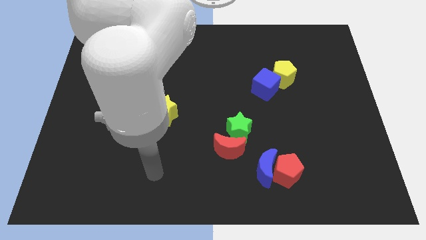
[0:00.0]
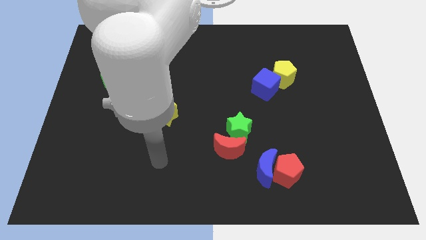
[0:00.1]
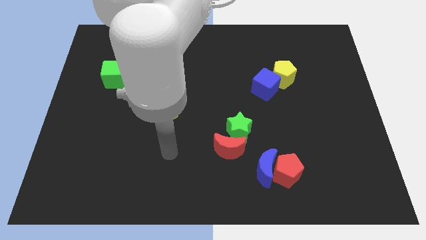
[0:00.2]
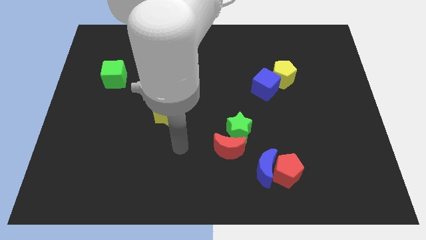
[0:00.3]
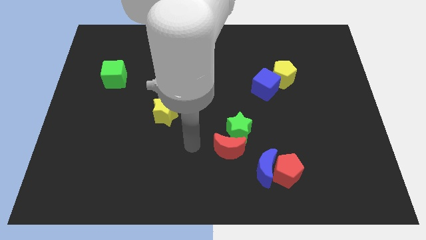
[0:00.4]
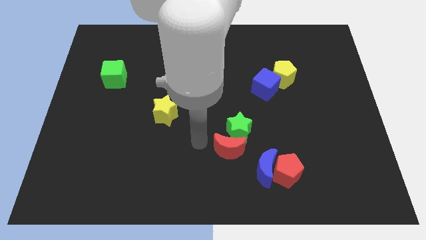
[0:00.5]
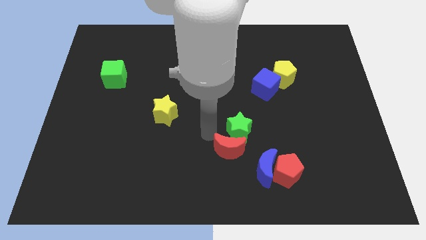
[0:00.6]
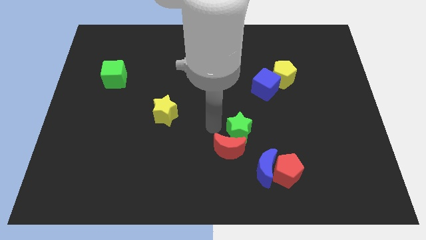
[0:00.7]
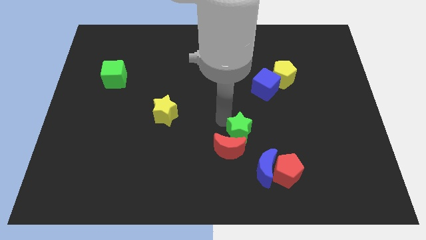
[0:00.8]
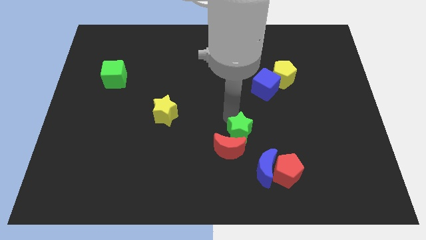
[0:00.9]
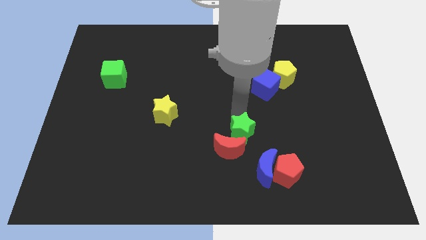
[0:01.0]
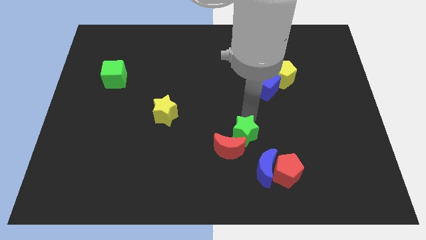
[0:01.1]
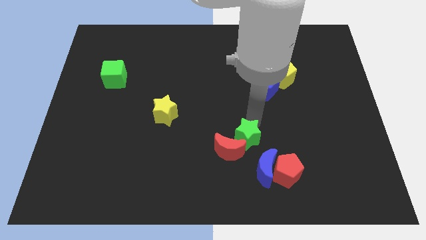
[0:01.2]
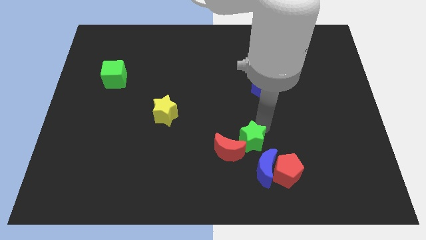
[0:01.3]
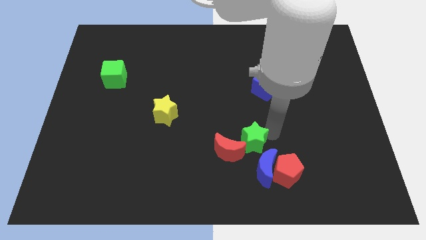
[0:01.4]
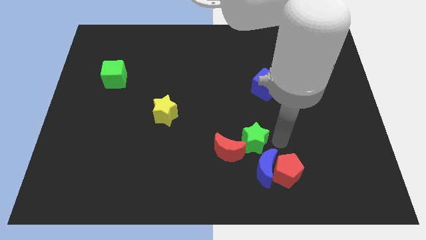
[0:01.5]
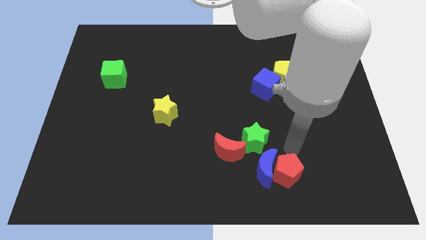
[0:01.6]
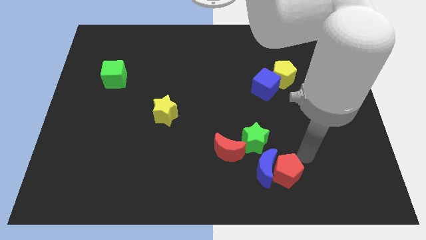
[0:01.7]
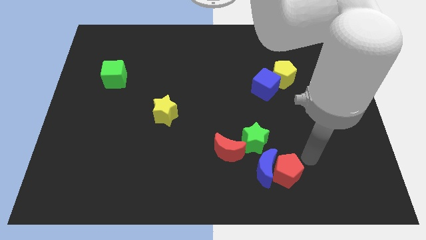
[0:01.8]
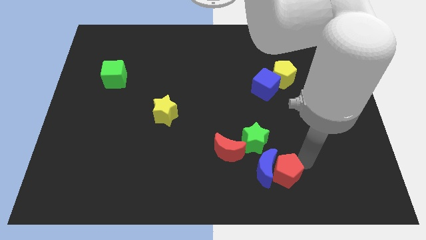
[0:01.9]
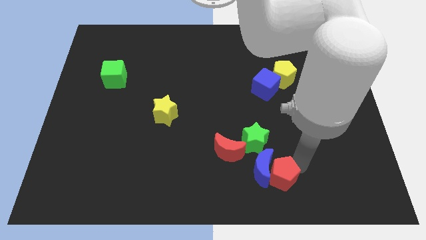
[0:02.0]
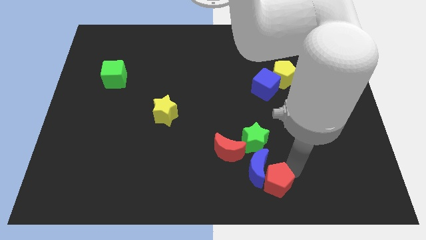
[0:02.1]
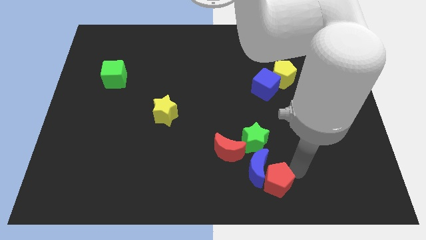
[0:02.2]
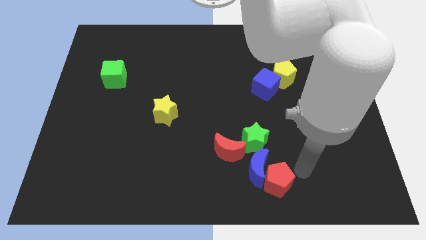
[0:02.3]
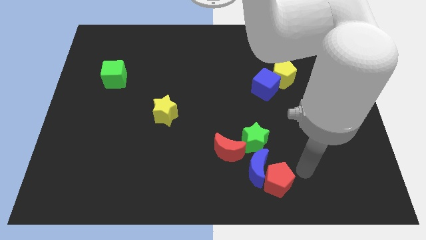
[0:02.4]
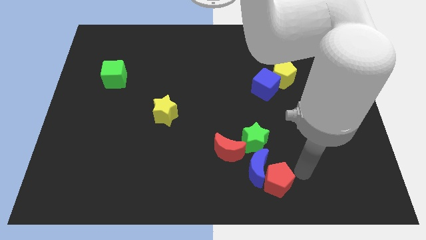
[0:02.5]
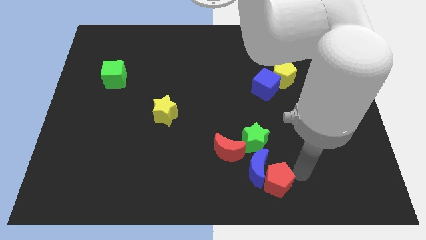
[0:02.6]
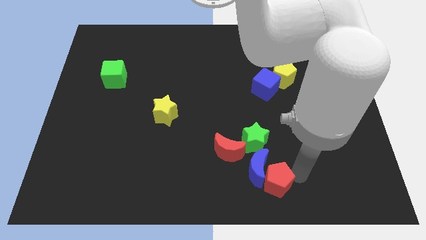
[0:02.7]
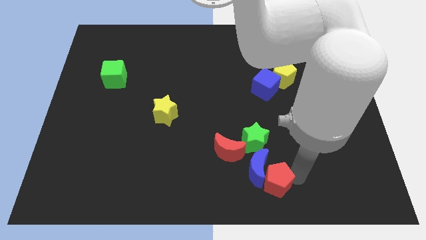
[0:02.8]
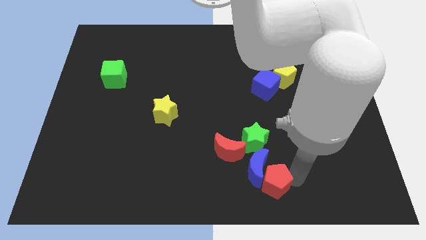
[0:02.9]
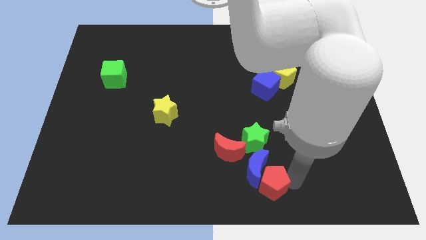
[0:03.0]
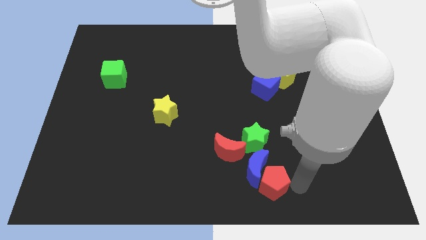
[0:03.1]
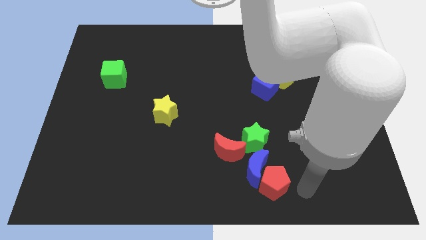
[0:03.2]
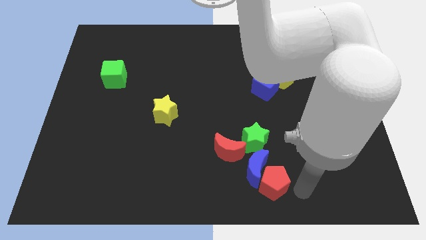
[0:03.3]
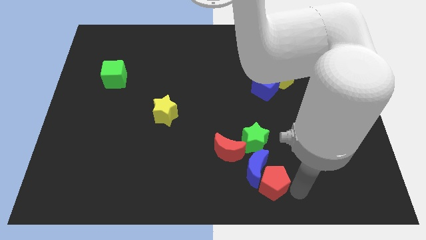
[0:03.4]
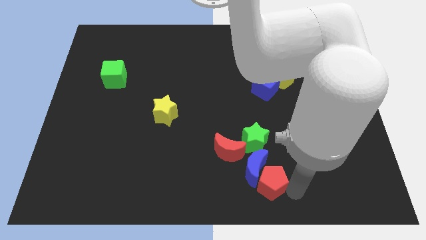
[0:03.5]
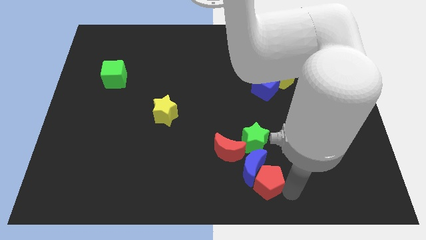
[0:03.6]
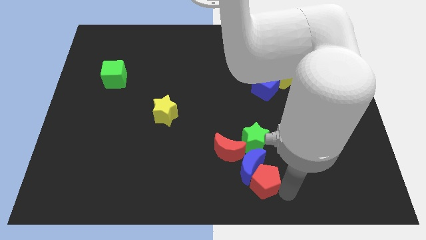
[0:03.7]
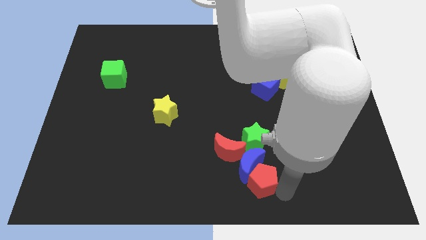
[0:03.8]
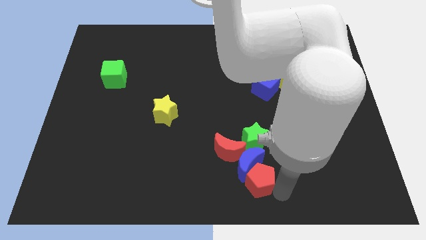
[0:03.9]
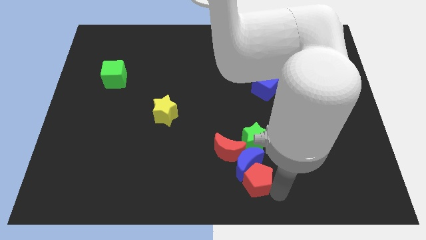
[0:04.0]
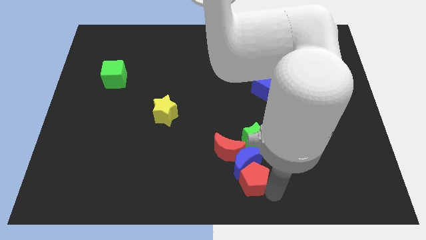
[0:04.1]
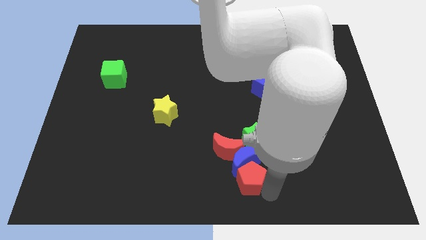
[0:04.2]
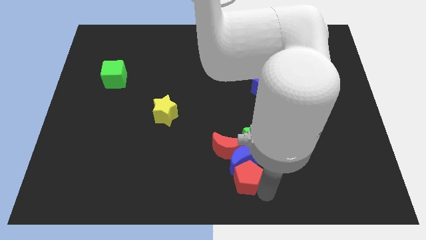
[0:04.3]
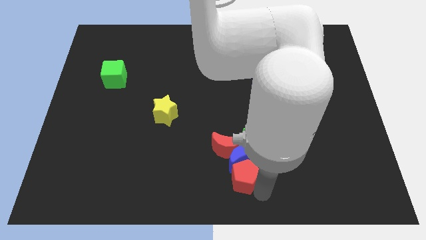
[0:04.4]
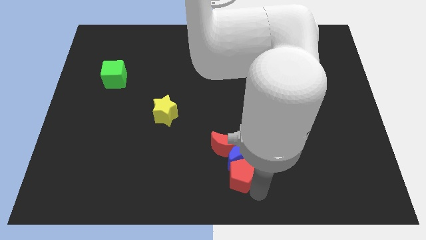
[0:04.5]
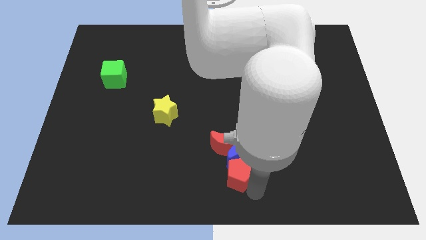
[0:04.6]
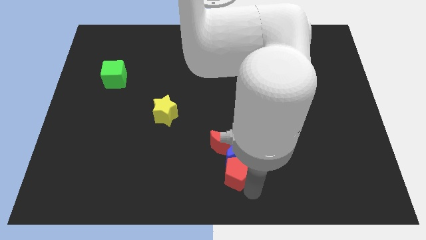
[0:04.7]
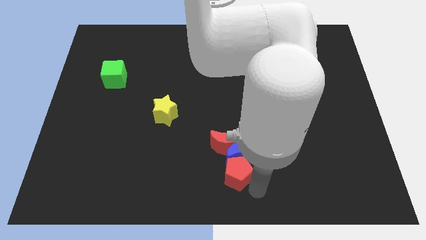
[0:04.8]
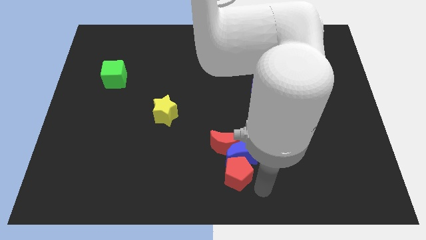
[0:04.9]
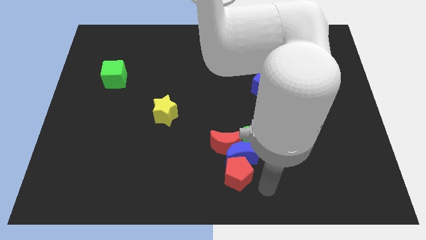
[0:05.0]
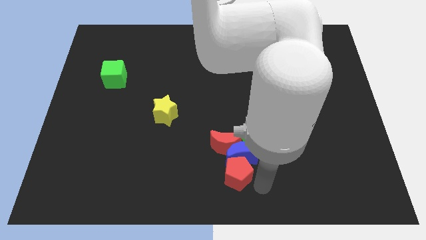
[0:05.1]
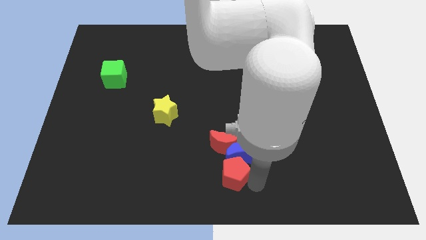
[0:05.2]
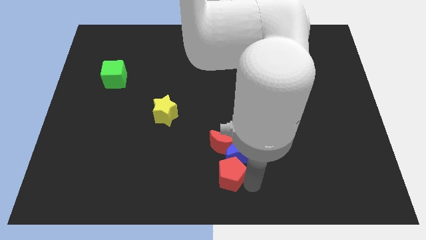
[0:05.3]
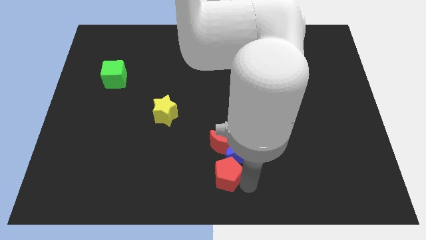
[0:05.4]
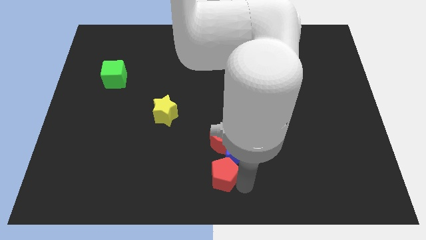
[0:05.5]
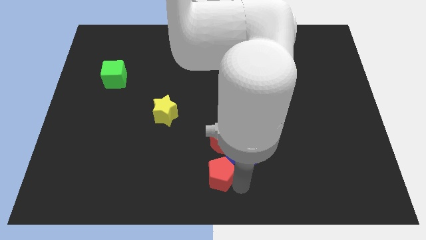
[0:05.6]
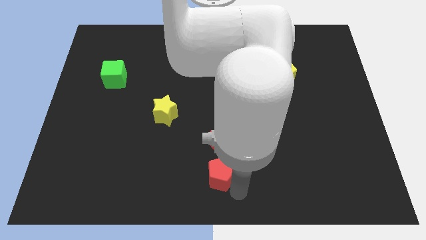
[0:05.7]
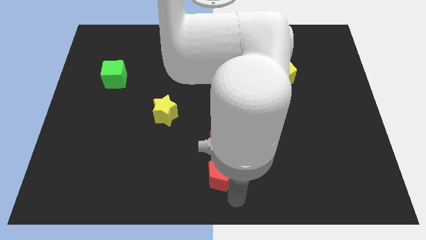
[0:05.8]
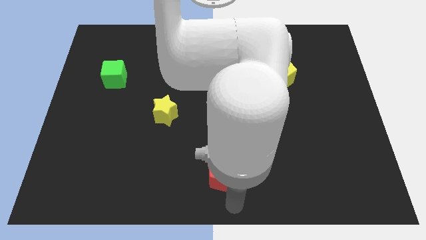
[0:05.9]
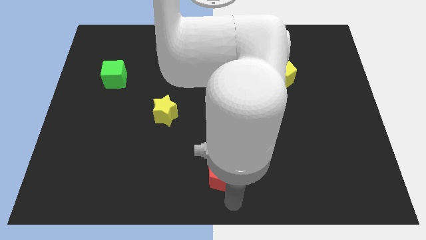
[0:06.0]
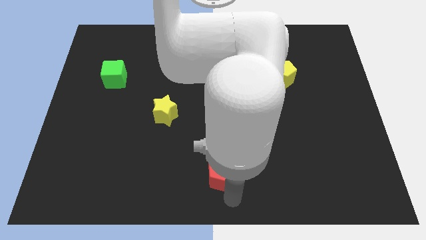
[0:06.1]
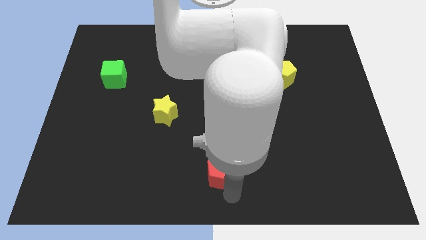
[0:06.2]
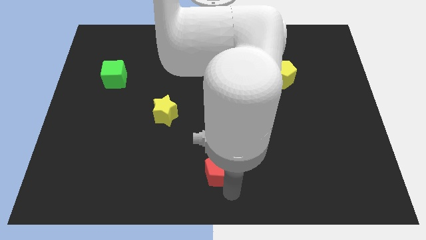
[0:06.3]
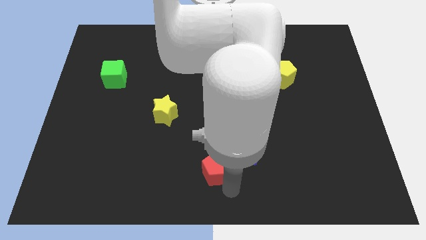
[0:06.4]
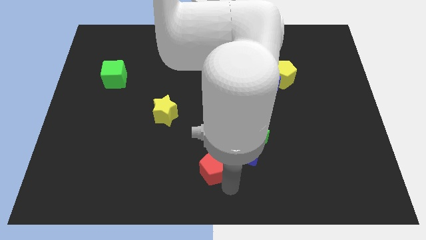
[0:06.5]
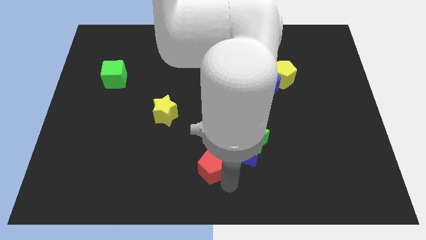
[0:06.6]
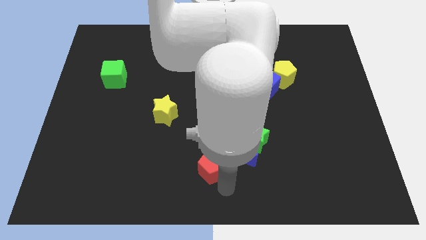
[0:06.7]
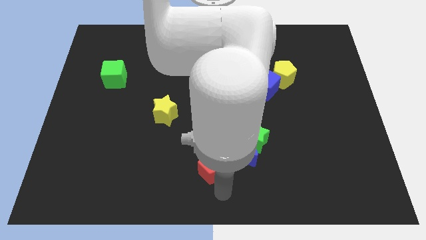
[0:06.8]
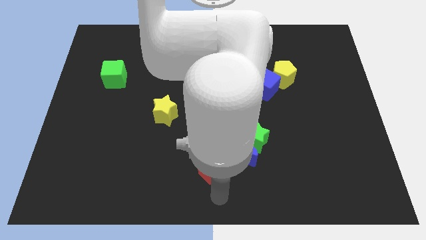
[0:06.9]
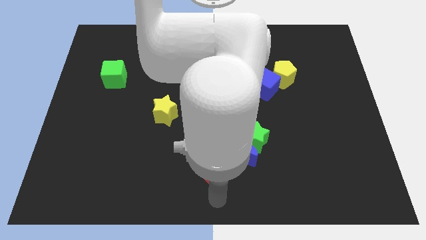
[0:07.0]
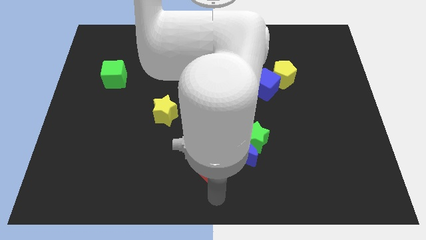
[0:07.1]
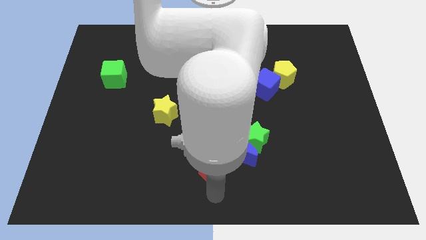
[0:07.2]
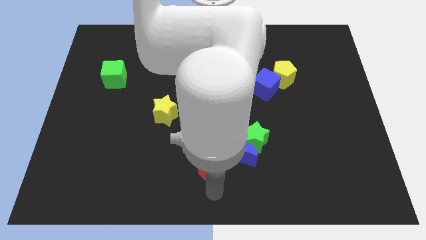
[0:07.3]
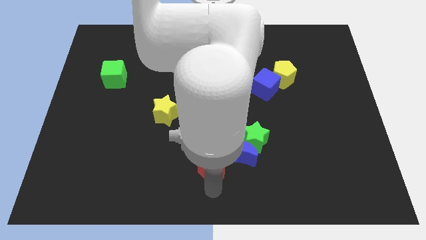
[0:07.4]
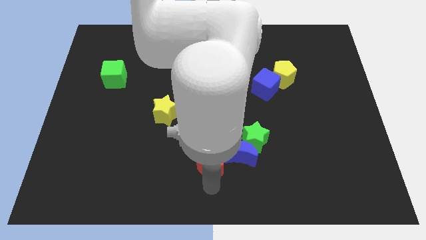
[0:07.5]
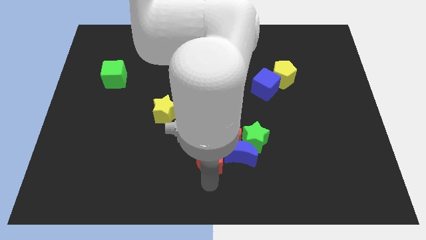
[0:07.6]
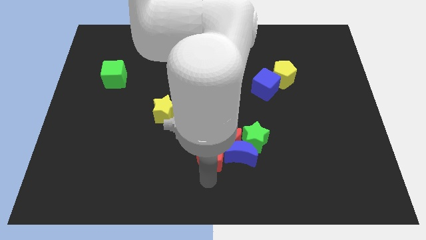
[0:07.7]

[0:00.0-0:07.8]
put the red pentagon to the left side of the green star
